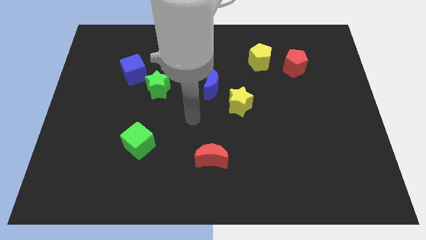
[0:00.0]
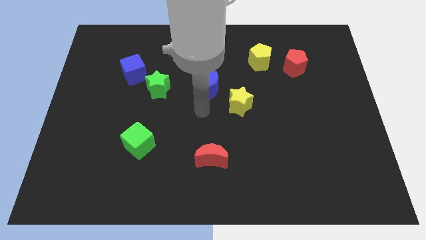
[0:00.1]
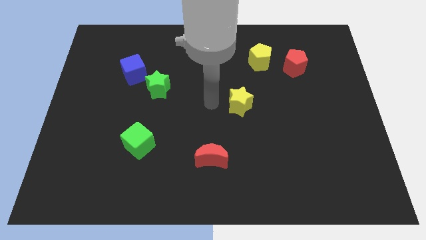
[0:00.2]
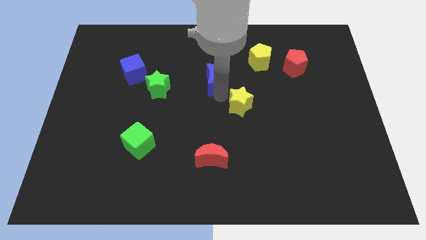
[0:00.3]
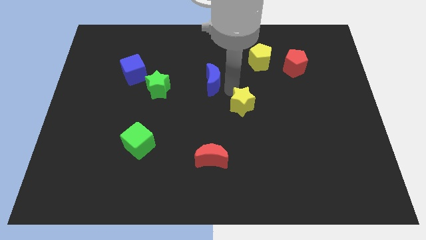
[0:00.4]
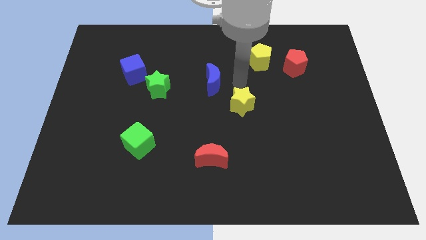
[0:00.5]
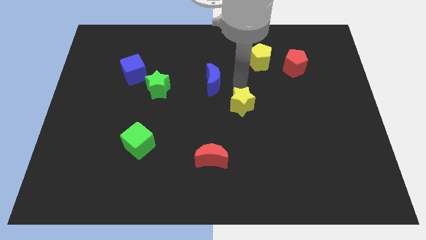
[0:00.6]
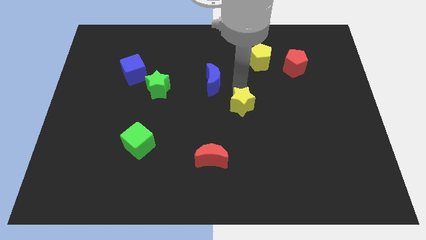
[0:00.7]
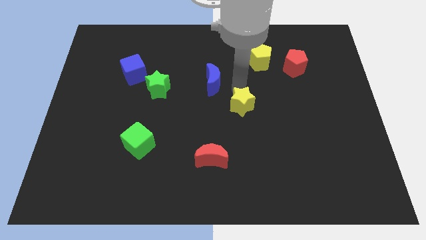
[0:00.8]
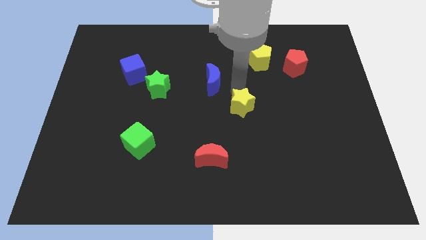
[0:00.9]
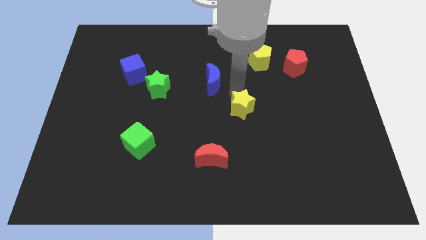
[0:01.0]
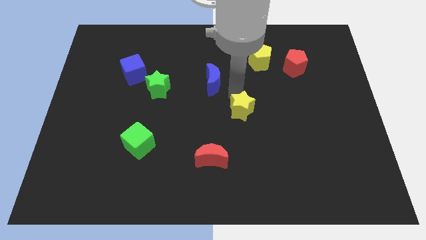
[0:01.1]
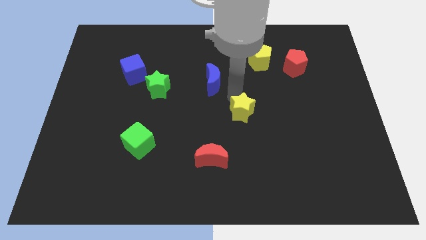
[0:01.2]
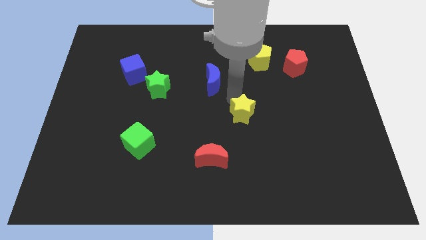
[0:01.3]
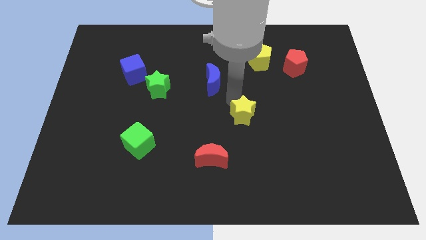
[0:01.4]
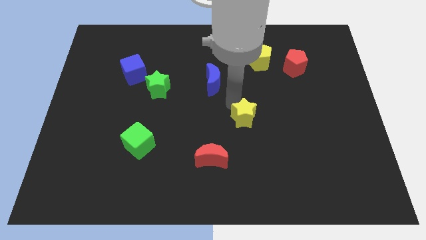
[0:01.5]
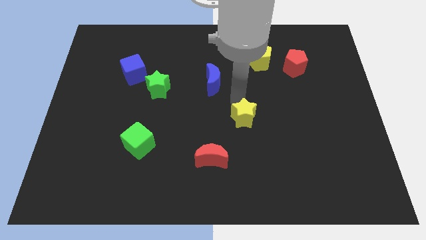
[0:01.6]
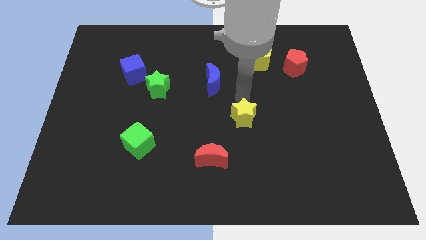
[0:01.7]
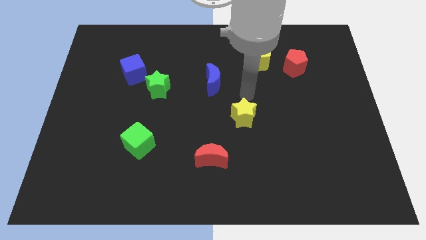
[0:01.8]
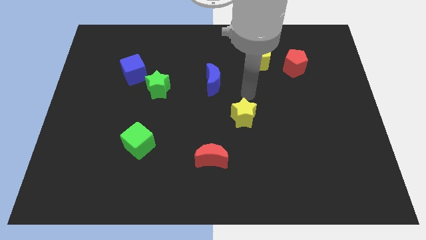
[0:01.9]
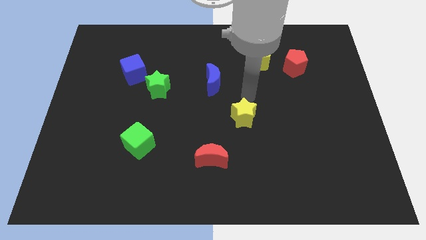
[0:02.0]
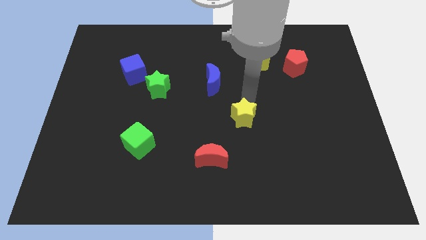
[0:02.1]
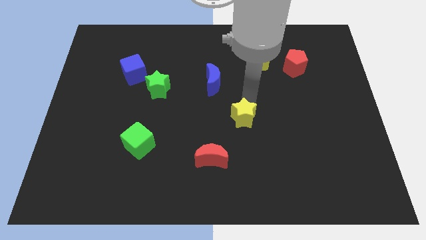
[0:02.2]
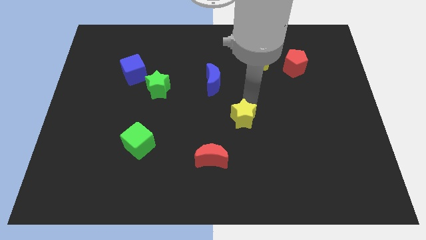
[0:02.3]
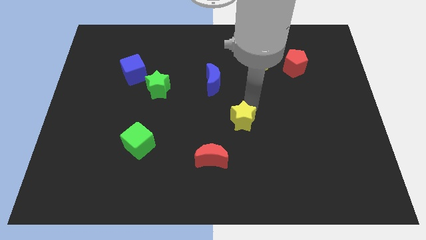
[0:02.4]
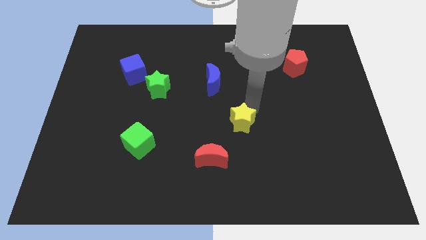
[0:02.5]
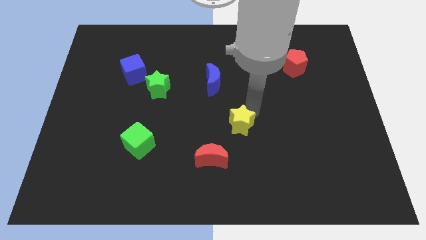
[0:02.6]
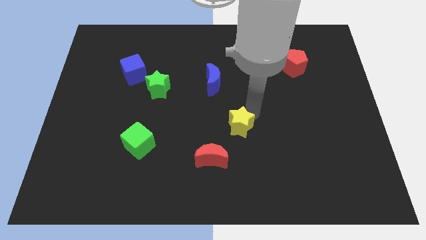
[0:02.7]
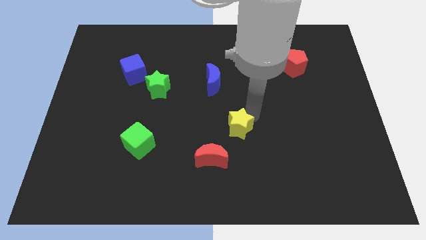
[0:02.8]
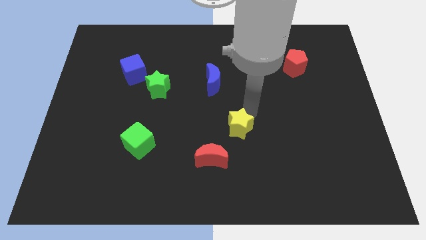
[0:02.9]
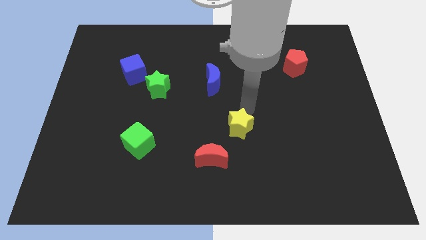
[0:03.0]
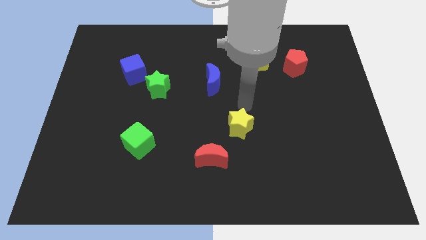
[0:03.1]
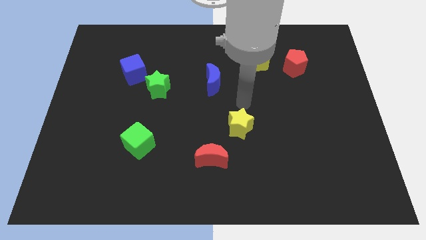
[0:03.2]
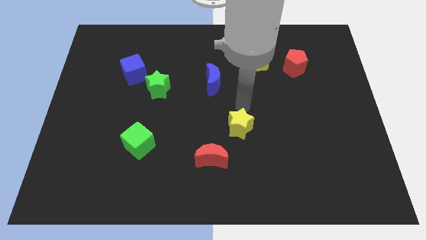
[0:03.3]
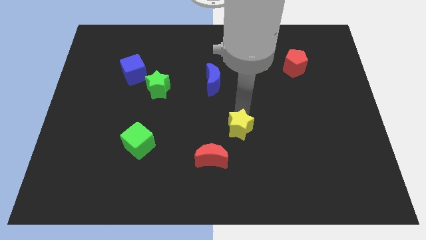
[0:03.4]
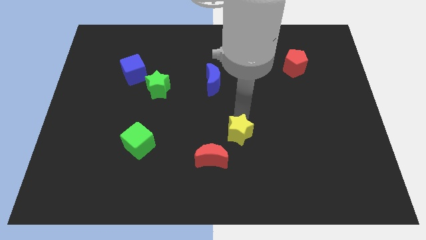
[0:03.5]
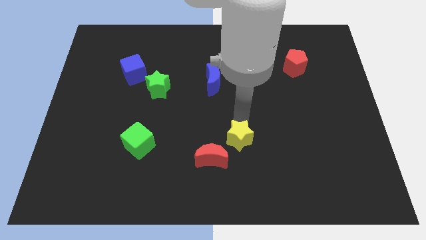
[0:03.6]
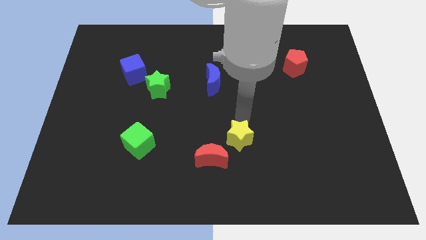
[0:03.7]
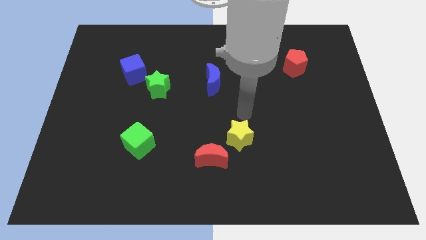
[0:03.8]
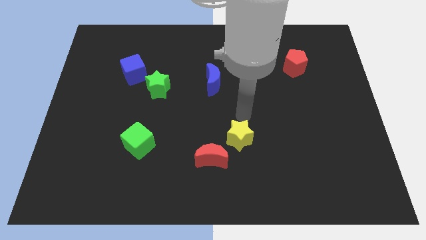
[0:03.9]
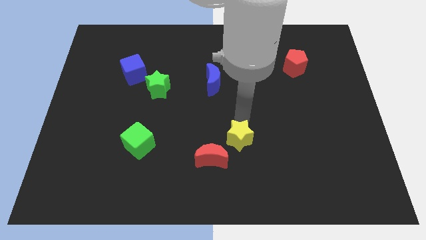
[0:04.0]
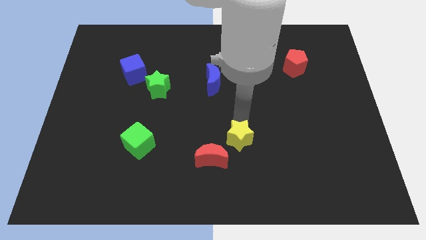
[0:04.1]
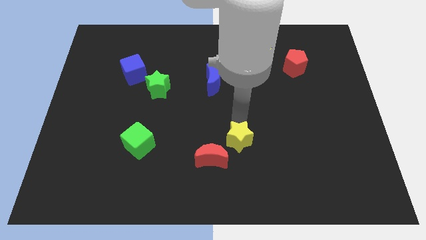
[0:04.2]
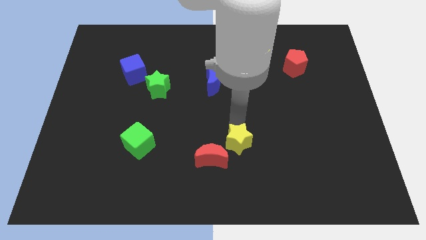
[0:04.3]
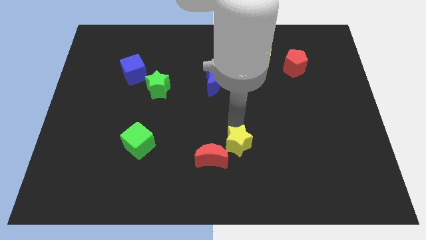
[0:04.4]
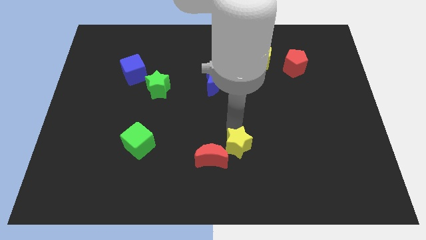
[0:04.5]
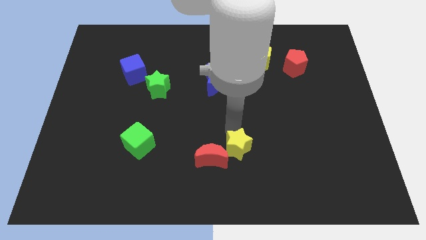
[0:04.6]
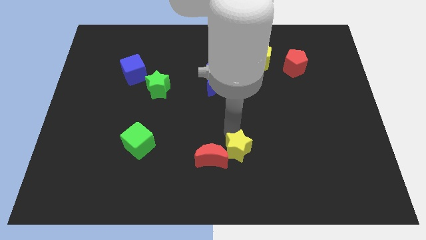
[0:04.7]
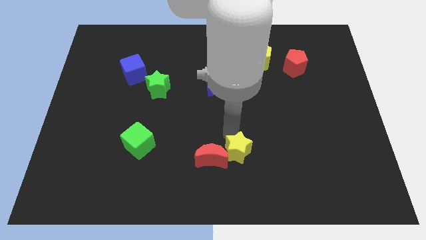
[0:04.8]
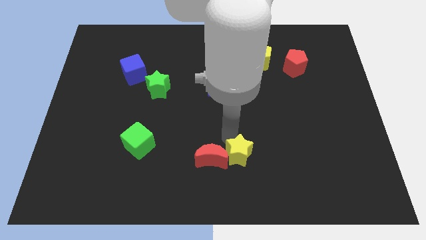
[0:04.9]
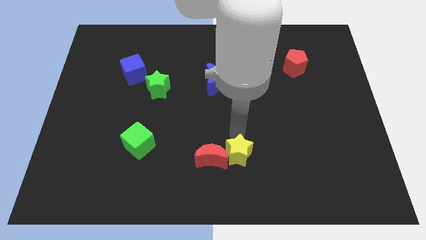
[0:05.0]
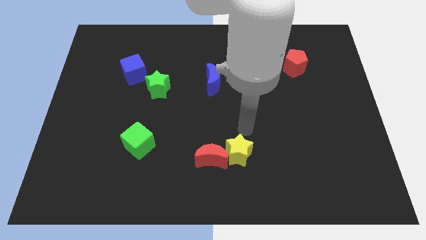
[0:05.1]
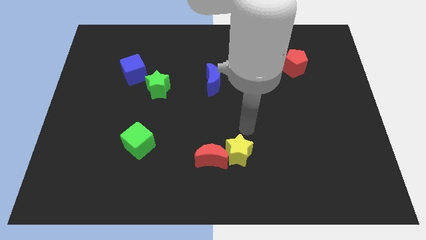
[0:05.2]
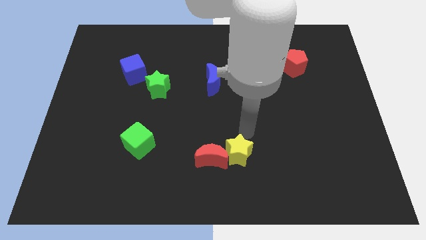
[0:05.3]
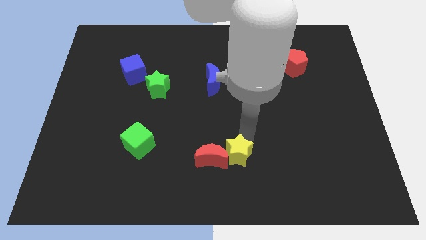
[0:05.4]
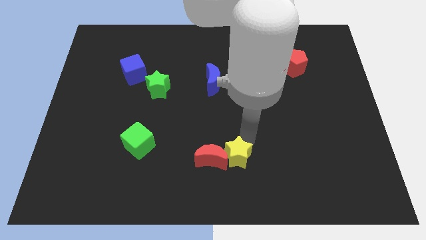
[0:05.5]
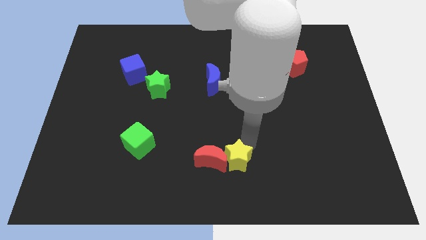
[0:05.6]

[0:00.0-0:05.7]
push the yellow star to the bottom
